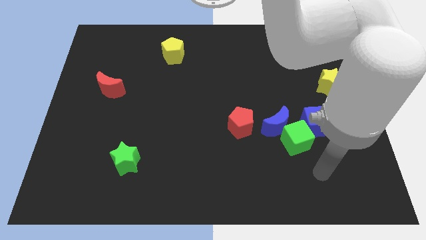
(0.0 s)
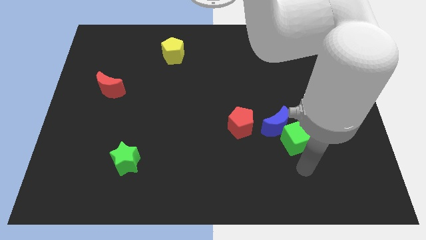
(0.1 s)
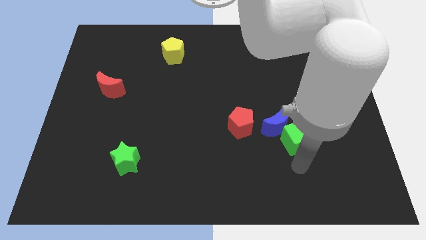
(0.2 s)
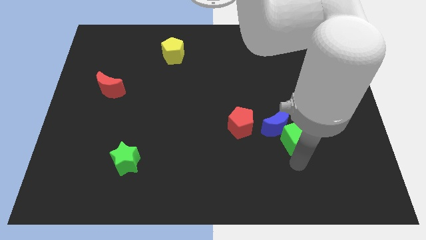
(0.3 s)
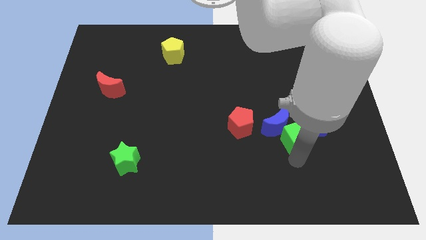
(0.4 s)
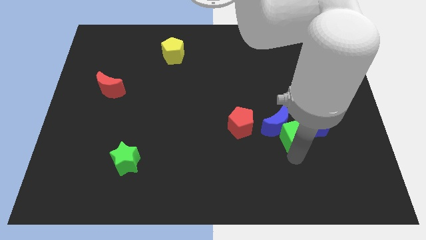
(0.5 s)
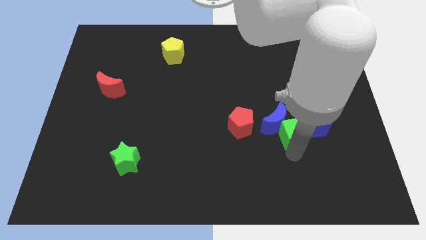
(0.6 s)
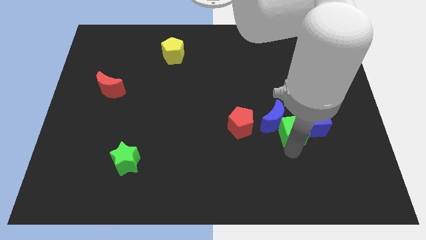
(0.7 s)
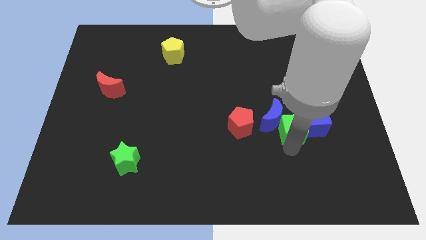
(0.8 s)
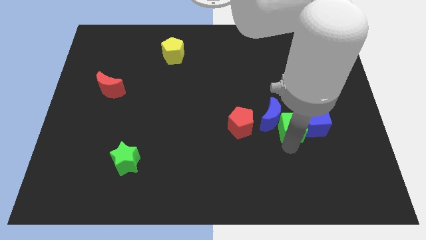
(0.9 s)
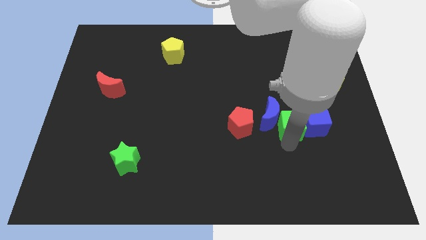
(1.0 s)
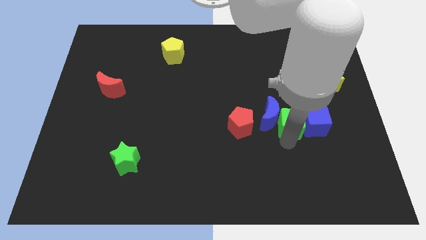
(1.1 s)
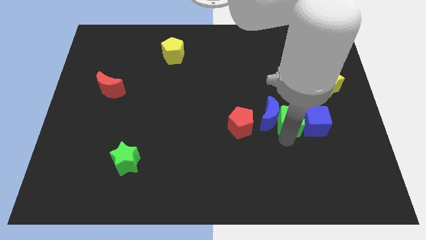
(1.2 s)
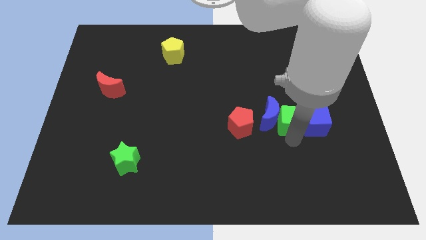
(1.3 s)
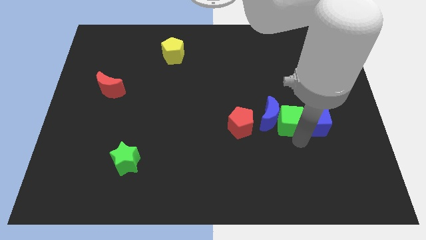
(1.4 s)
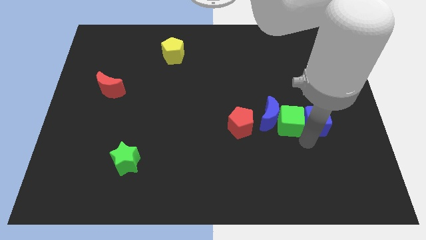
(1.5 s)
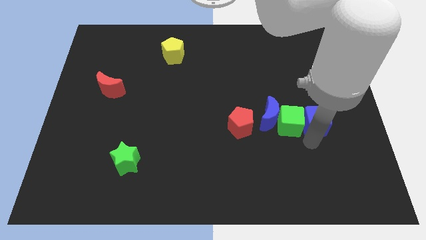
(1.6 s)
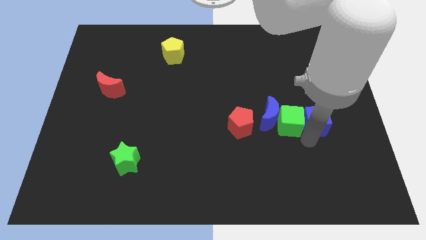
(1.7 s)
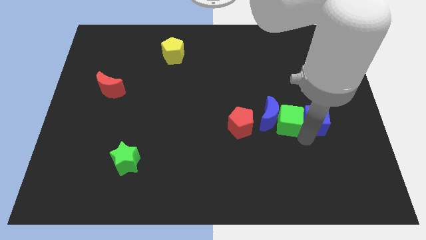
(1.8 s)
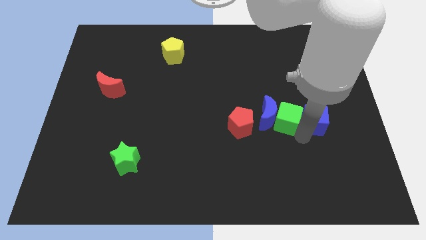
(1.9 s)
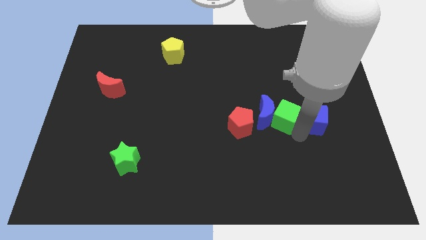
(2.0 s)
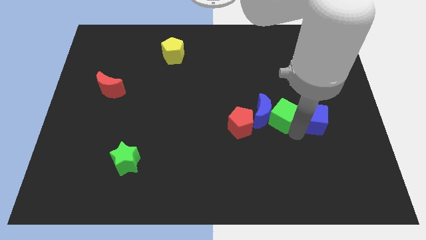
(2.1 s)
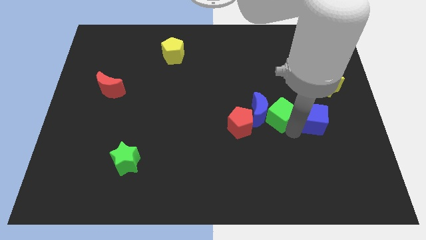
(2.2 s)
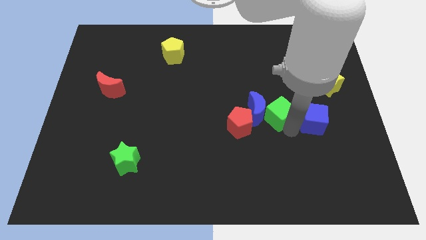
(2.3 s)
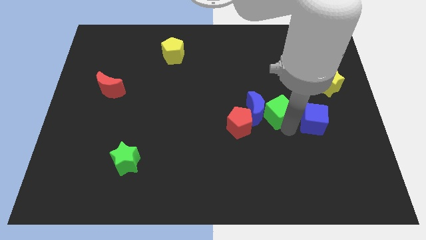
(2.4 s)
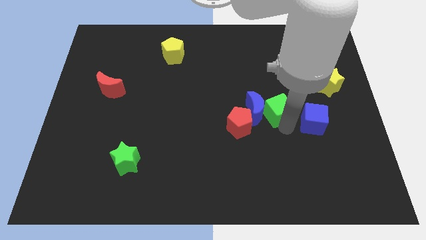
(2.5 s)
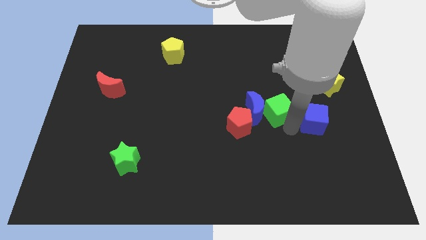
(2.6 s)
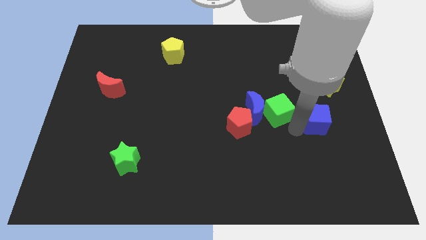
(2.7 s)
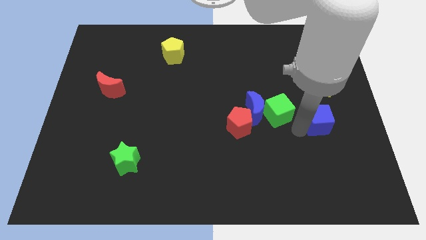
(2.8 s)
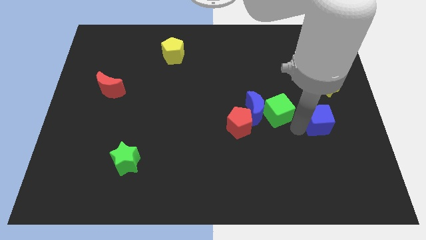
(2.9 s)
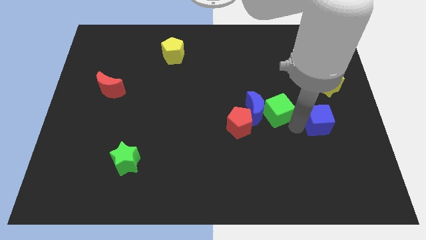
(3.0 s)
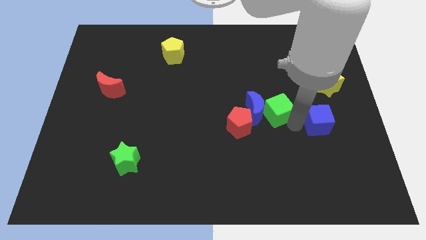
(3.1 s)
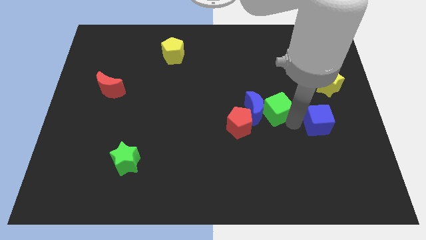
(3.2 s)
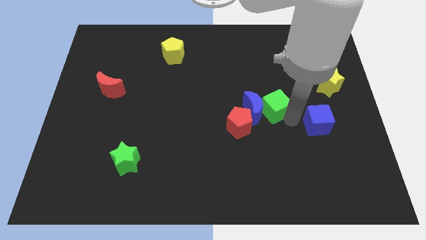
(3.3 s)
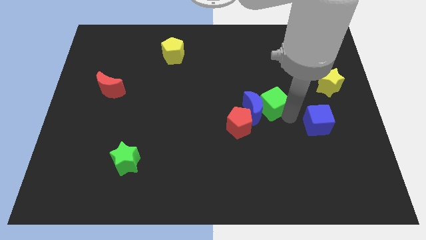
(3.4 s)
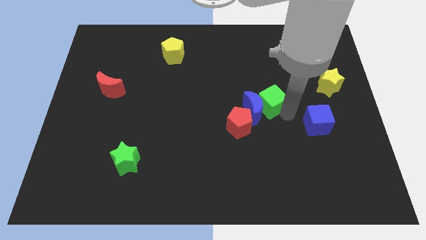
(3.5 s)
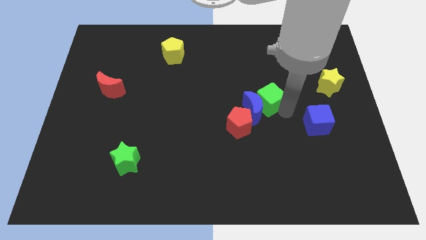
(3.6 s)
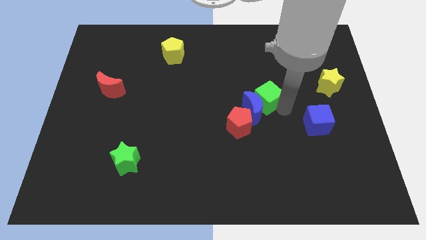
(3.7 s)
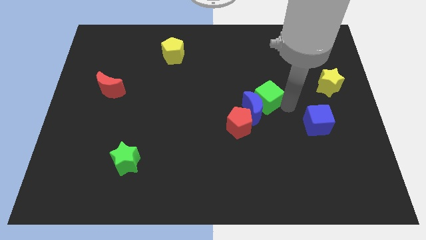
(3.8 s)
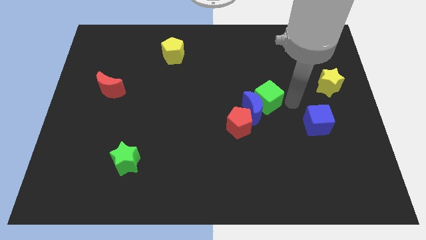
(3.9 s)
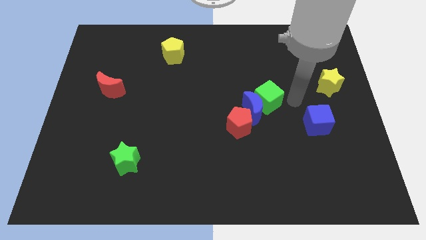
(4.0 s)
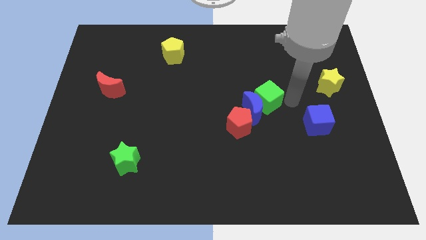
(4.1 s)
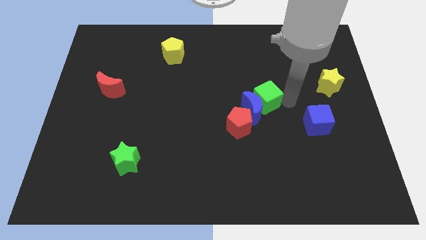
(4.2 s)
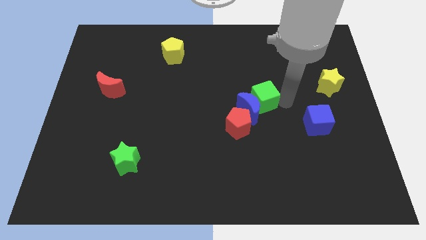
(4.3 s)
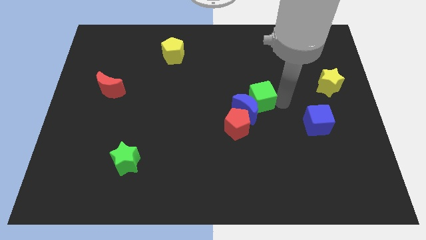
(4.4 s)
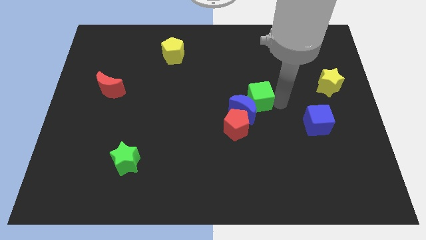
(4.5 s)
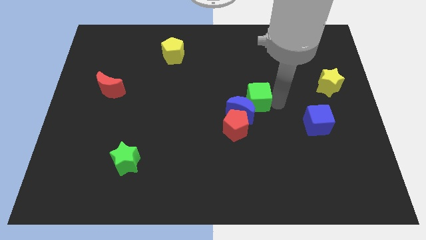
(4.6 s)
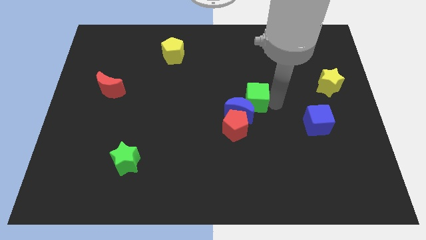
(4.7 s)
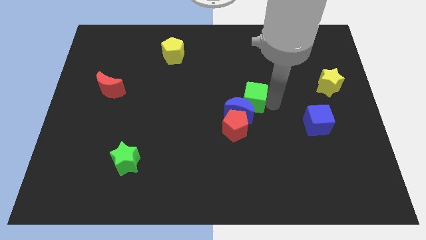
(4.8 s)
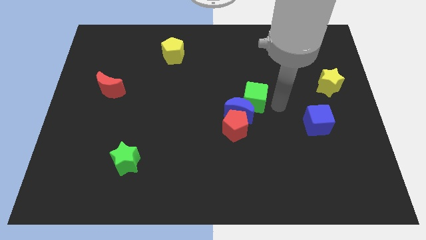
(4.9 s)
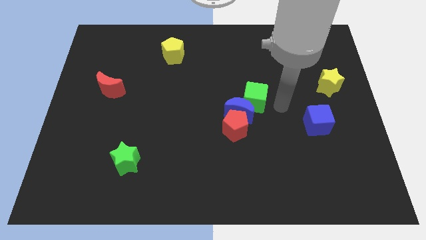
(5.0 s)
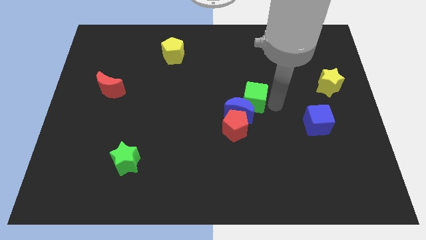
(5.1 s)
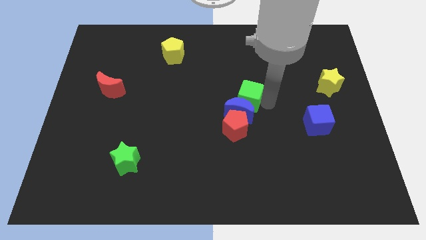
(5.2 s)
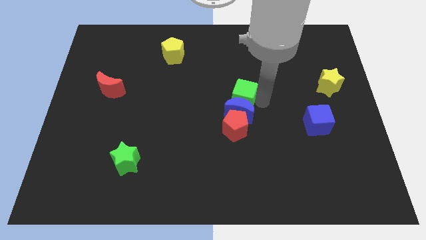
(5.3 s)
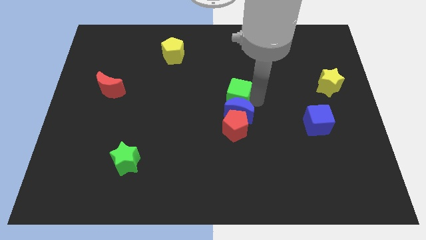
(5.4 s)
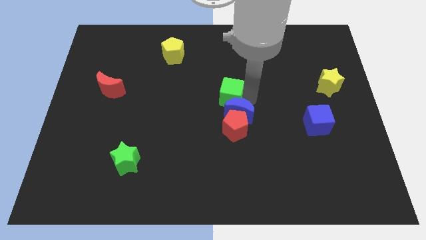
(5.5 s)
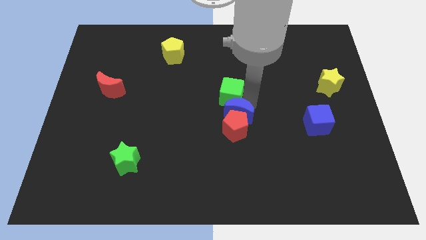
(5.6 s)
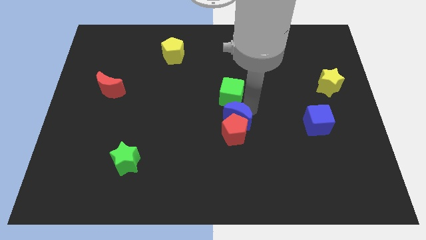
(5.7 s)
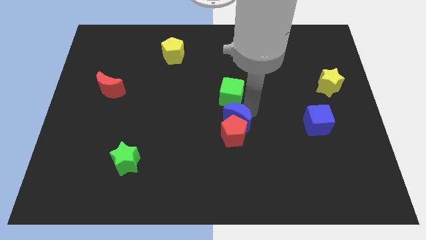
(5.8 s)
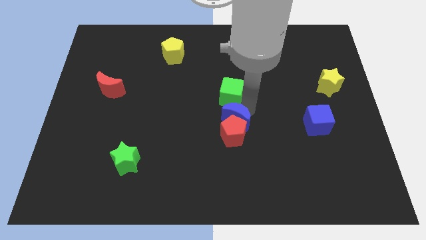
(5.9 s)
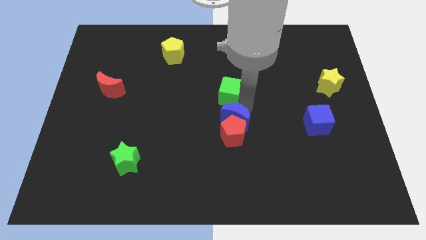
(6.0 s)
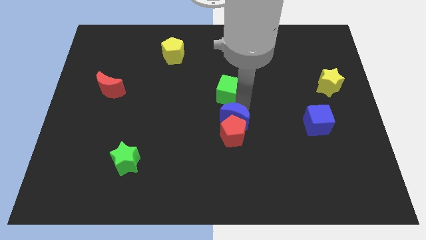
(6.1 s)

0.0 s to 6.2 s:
push the green cube up and left

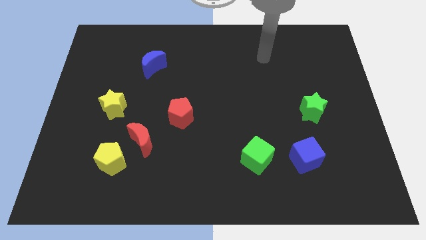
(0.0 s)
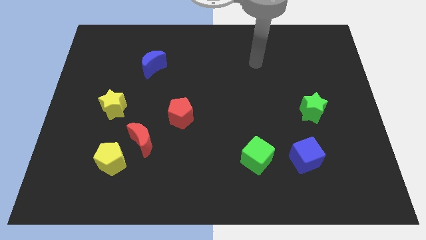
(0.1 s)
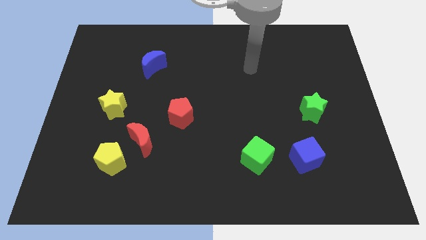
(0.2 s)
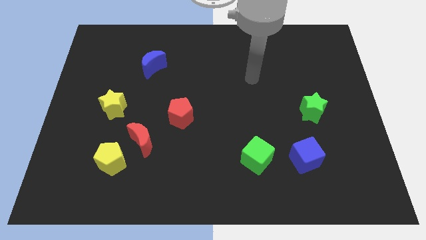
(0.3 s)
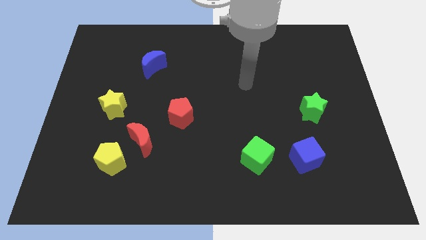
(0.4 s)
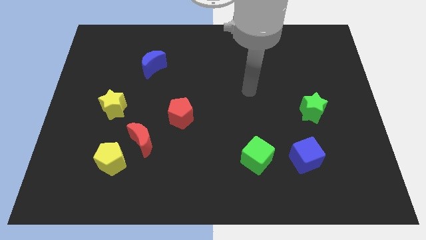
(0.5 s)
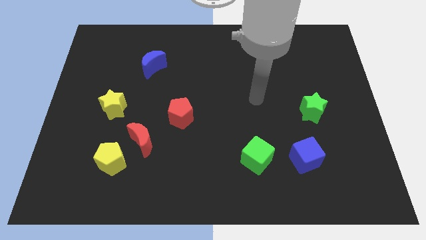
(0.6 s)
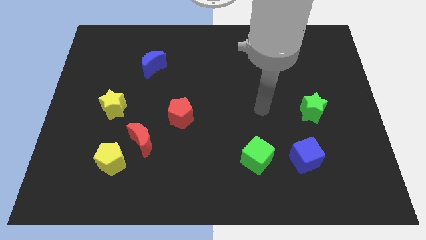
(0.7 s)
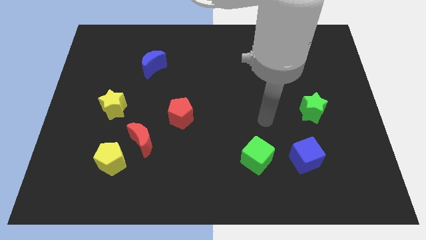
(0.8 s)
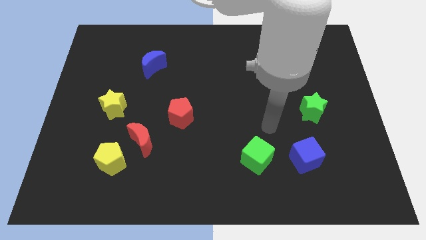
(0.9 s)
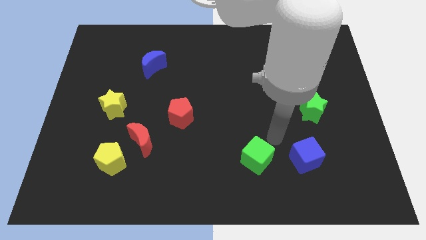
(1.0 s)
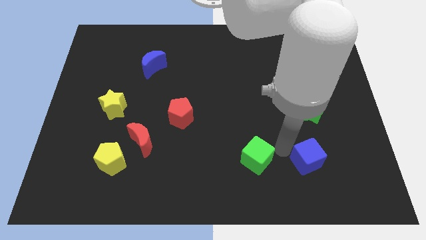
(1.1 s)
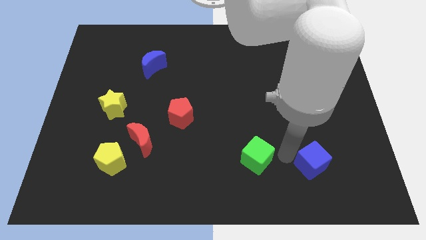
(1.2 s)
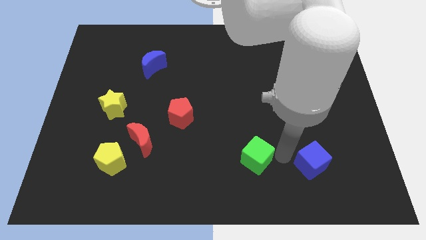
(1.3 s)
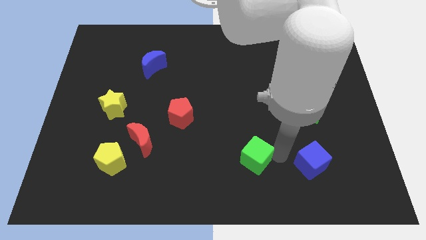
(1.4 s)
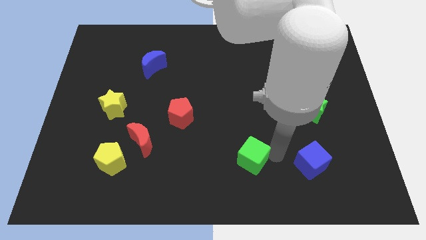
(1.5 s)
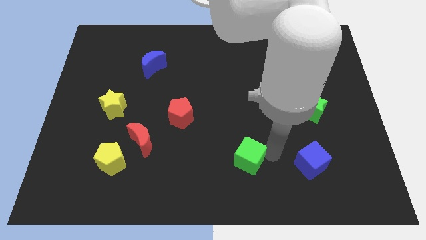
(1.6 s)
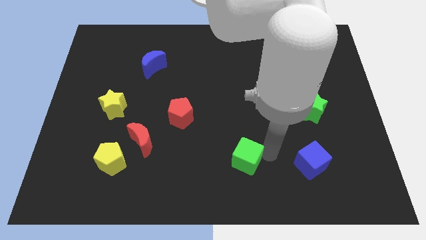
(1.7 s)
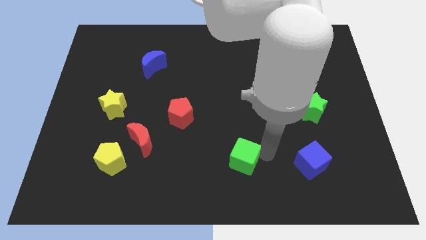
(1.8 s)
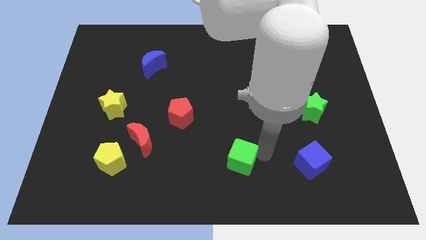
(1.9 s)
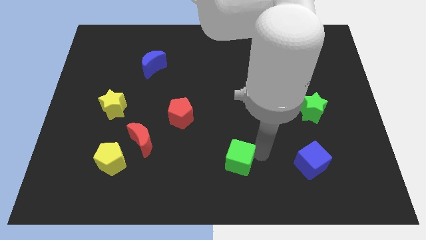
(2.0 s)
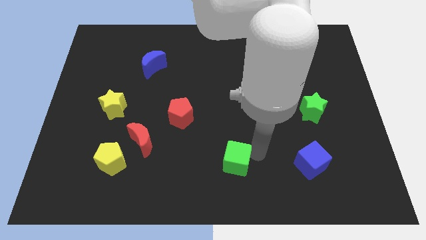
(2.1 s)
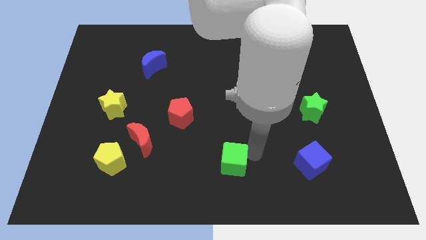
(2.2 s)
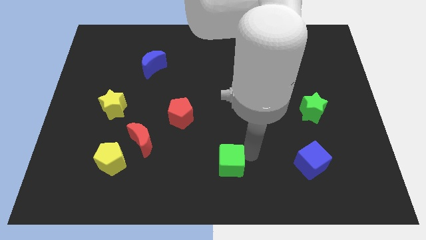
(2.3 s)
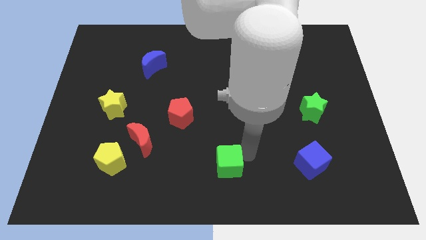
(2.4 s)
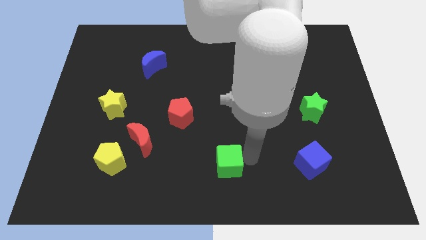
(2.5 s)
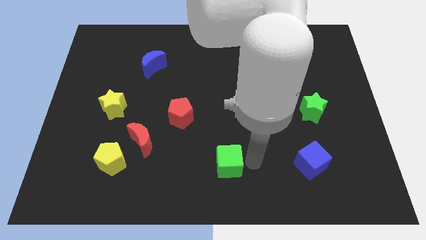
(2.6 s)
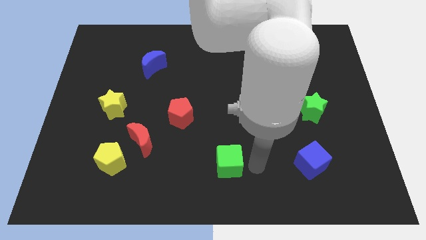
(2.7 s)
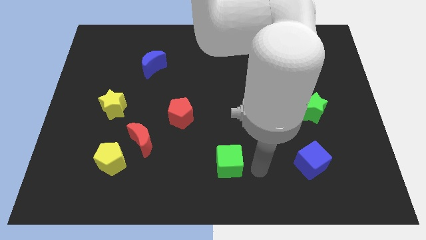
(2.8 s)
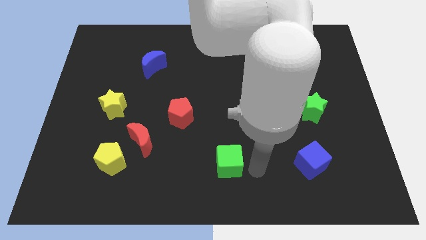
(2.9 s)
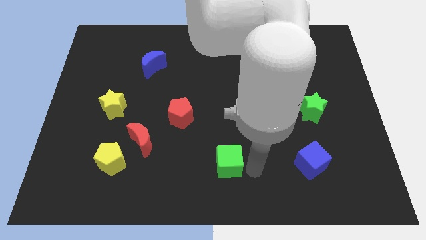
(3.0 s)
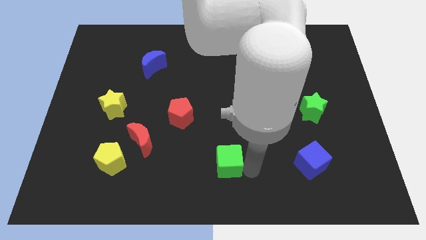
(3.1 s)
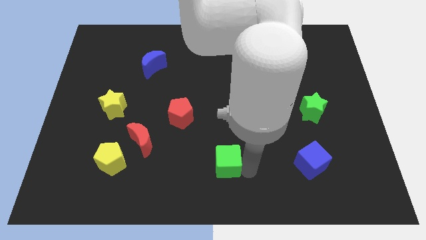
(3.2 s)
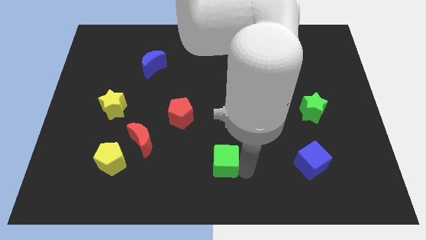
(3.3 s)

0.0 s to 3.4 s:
move the green cube a little bit left
